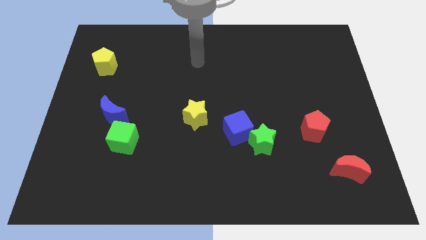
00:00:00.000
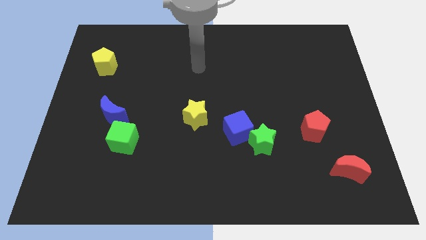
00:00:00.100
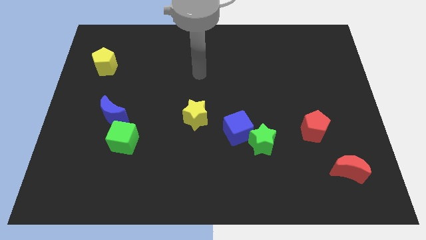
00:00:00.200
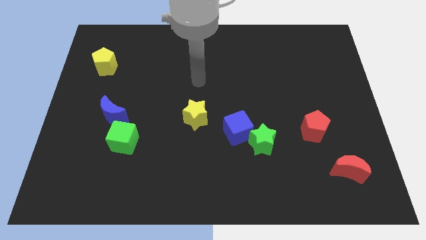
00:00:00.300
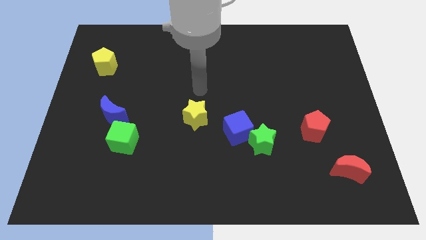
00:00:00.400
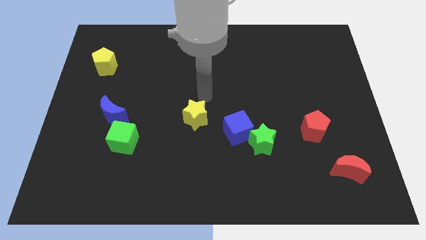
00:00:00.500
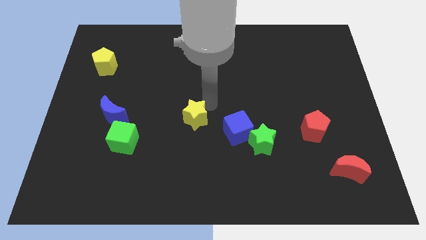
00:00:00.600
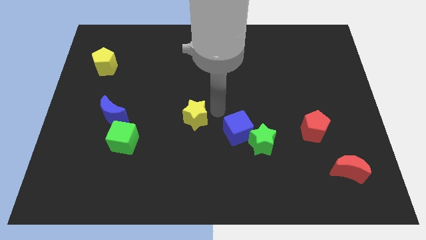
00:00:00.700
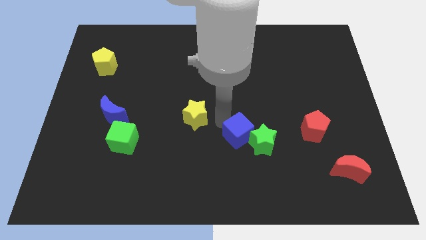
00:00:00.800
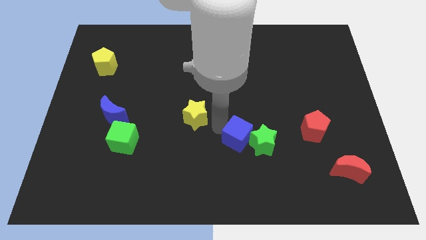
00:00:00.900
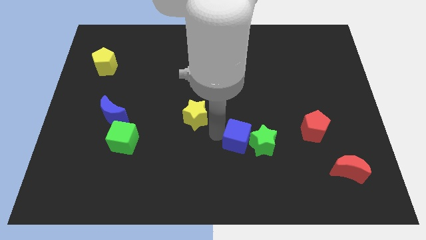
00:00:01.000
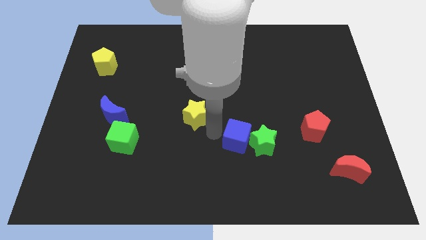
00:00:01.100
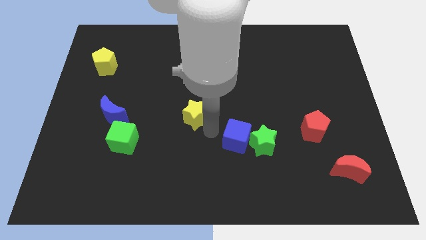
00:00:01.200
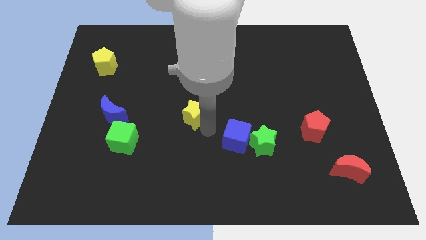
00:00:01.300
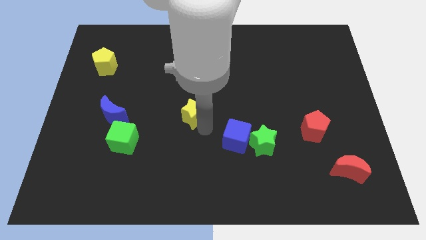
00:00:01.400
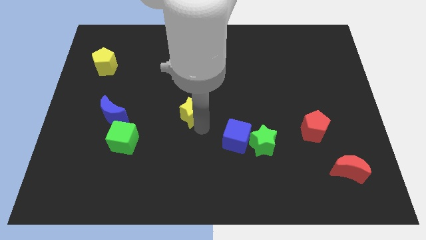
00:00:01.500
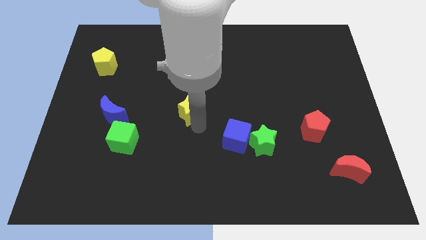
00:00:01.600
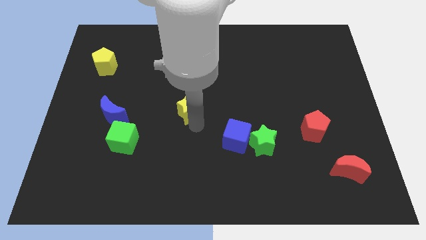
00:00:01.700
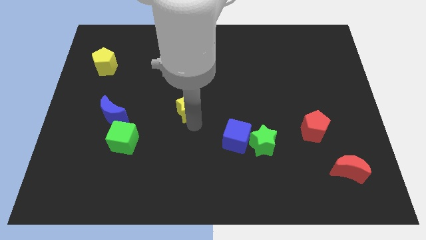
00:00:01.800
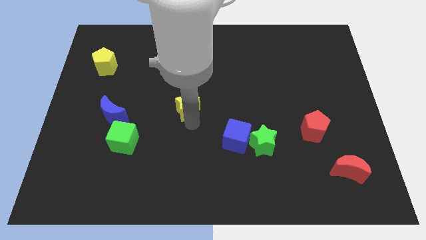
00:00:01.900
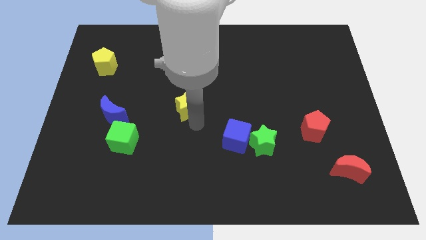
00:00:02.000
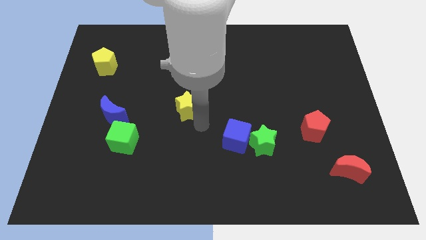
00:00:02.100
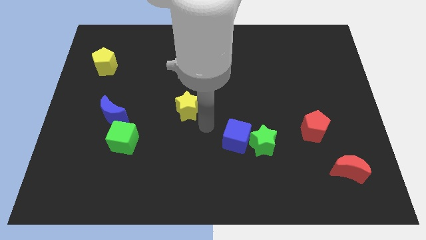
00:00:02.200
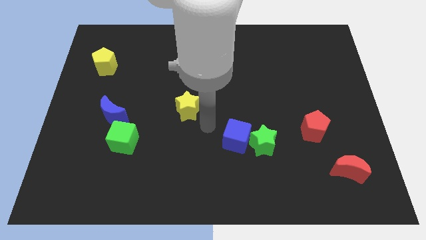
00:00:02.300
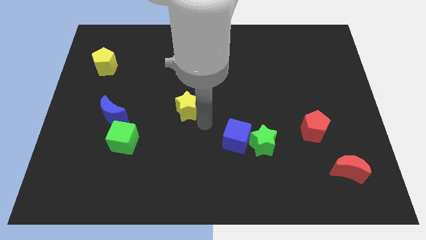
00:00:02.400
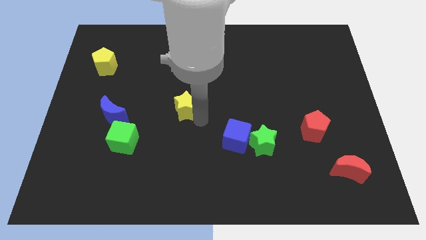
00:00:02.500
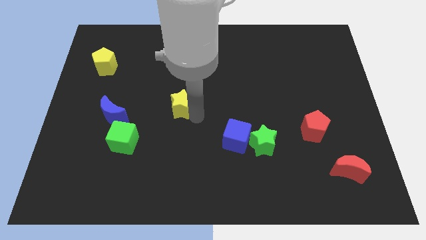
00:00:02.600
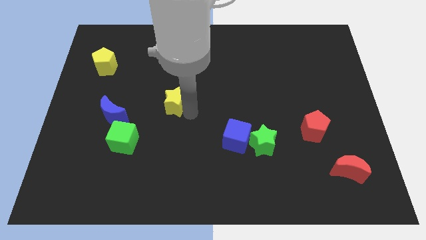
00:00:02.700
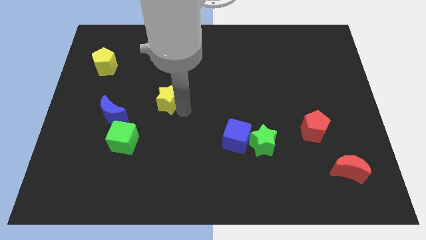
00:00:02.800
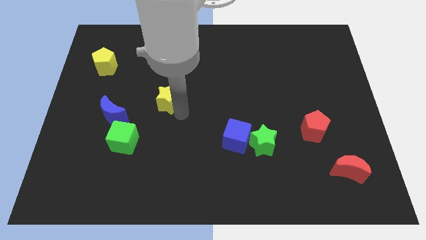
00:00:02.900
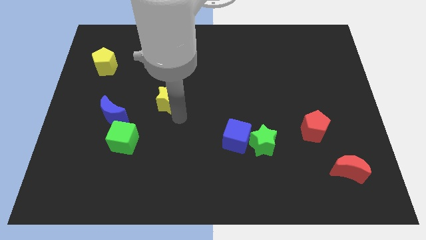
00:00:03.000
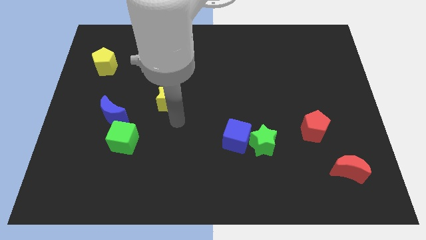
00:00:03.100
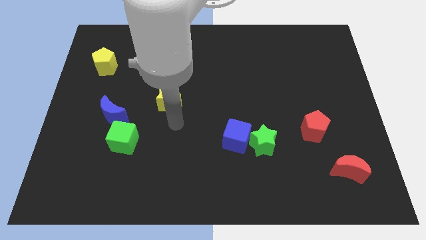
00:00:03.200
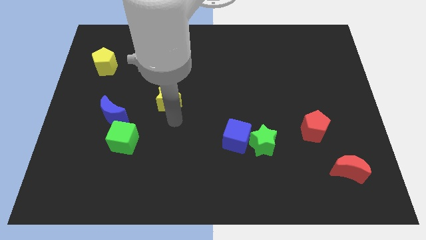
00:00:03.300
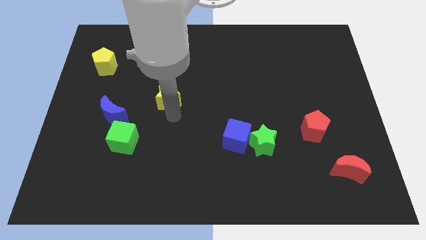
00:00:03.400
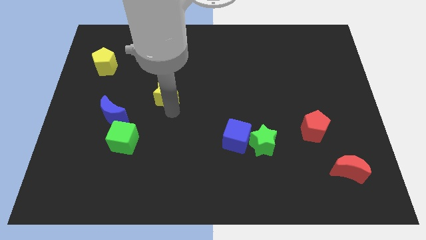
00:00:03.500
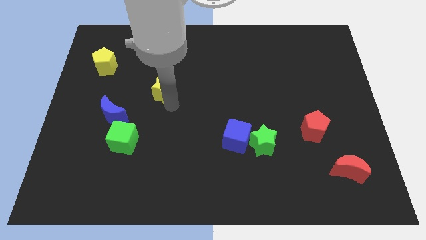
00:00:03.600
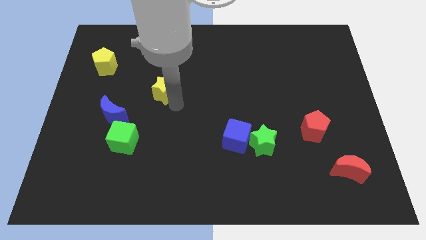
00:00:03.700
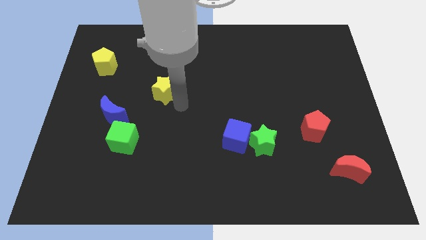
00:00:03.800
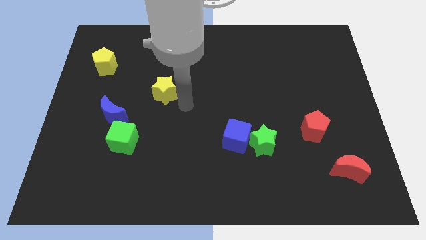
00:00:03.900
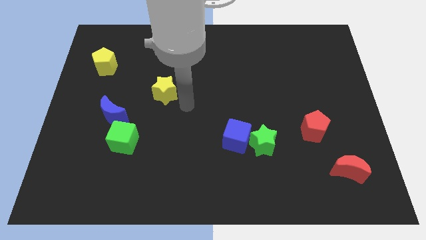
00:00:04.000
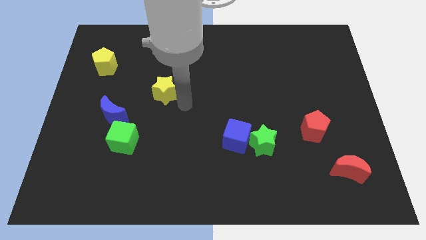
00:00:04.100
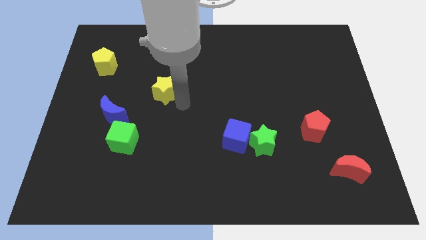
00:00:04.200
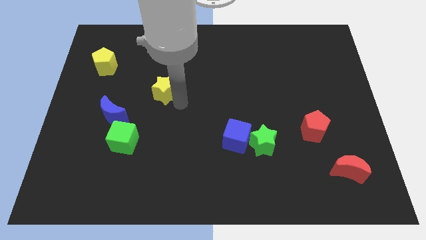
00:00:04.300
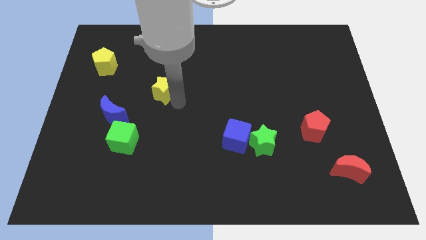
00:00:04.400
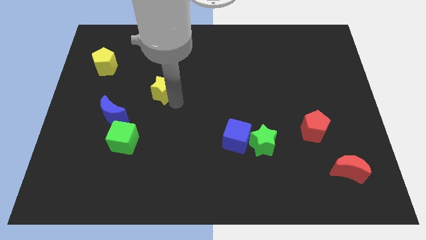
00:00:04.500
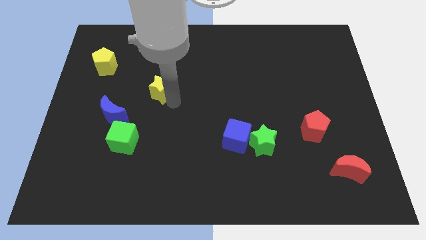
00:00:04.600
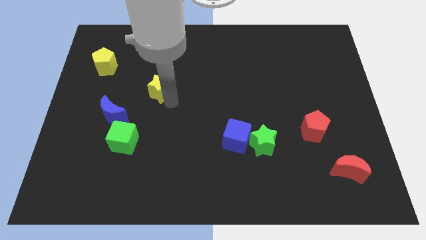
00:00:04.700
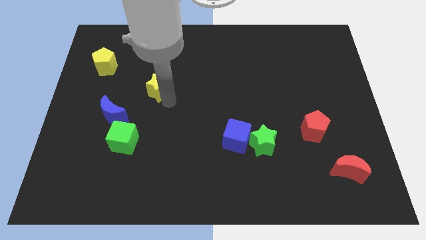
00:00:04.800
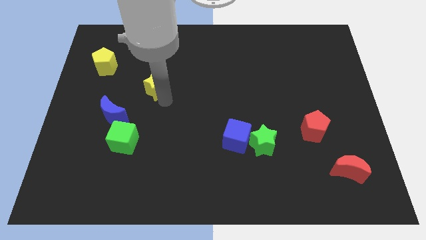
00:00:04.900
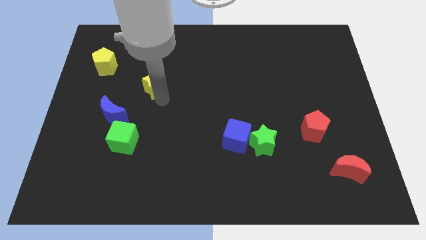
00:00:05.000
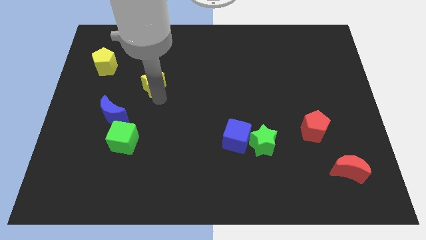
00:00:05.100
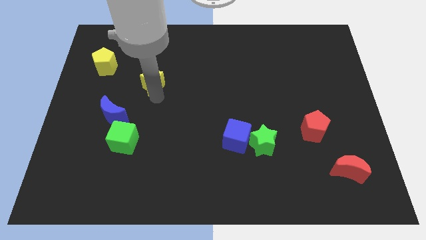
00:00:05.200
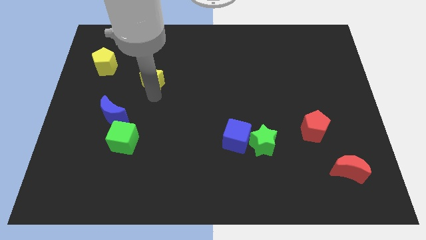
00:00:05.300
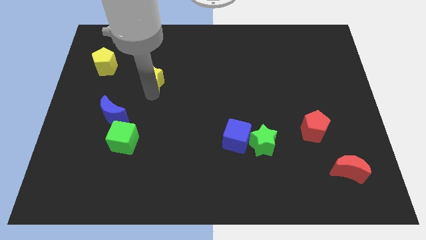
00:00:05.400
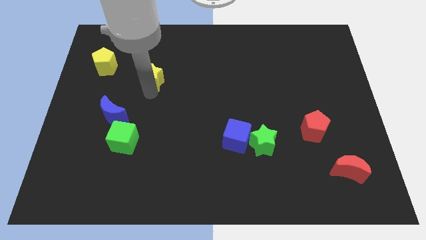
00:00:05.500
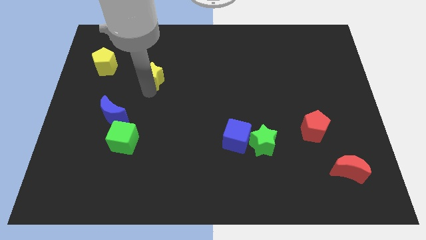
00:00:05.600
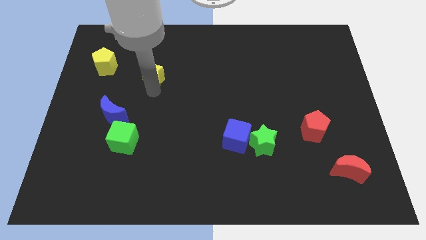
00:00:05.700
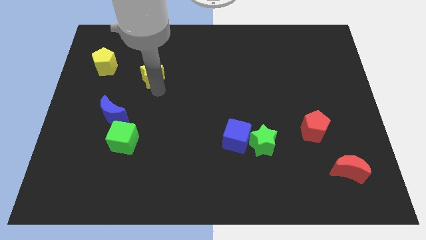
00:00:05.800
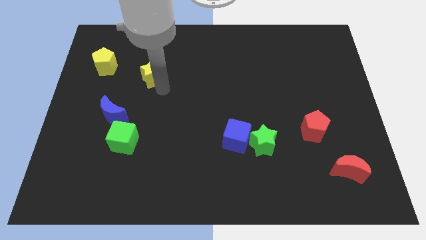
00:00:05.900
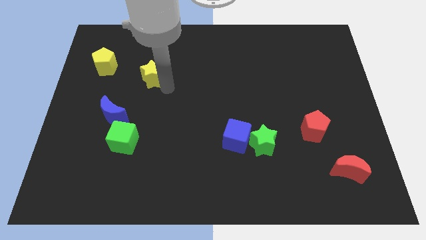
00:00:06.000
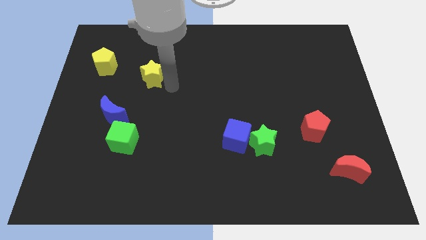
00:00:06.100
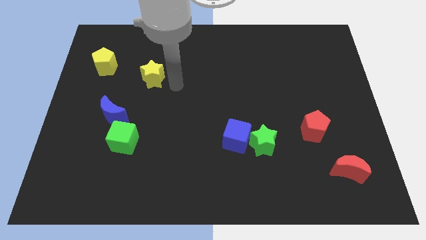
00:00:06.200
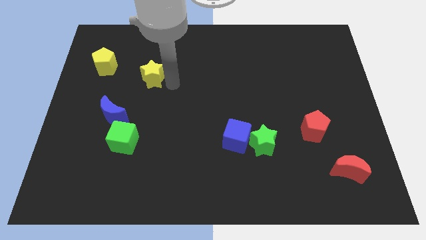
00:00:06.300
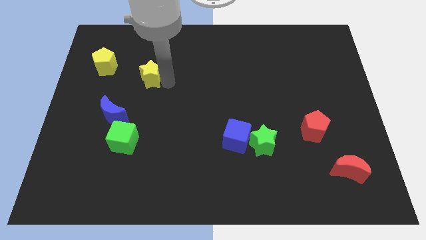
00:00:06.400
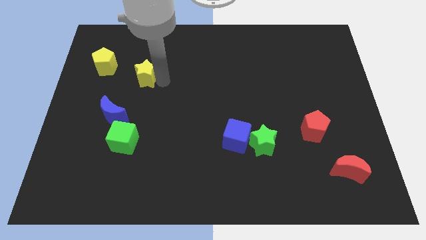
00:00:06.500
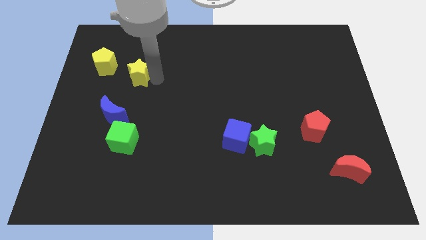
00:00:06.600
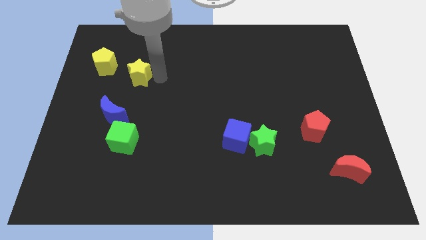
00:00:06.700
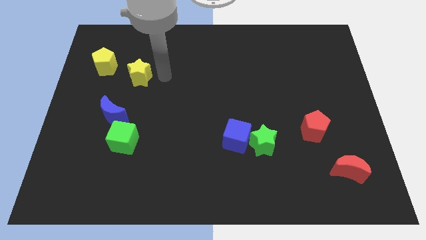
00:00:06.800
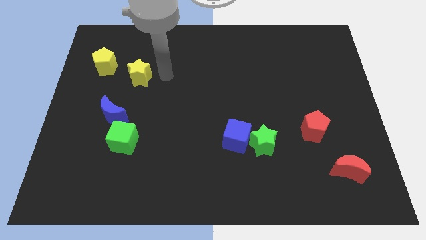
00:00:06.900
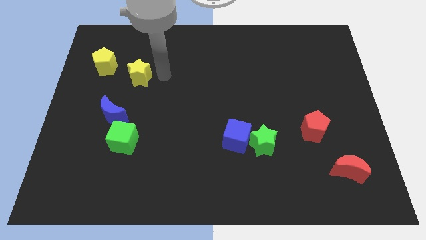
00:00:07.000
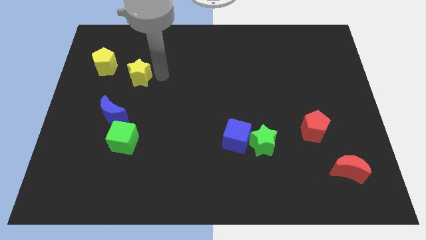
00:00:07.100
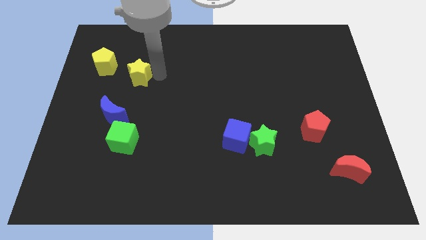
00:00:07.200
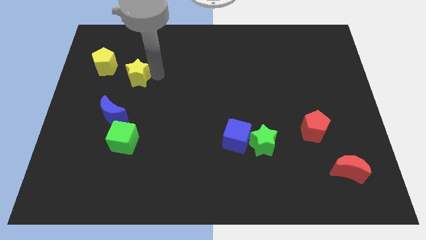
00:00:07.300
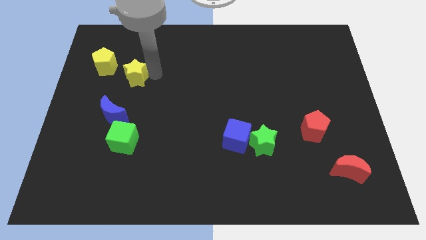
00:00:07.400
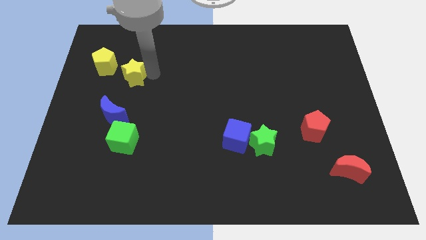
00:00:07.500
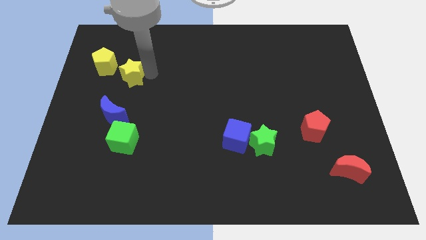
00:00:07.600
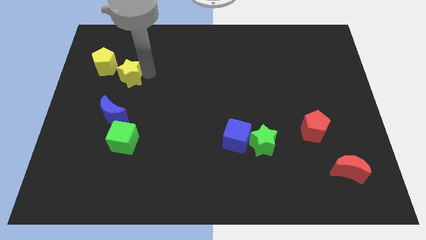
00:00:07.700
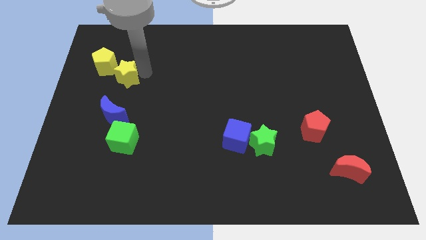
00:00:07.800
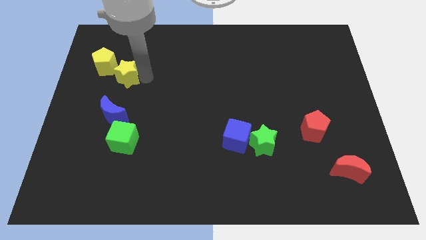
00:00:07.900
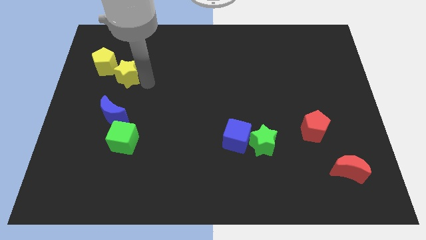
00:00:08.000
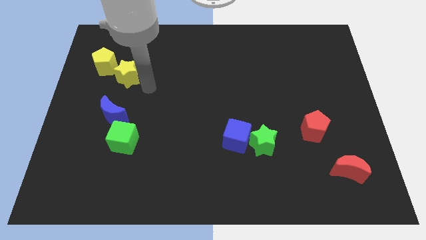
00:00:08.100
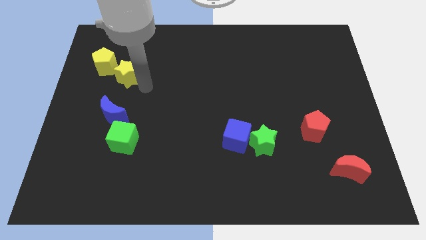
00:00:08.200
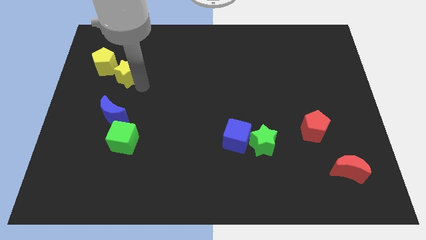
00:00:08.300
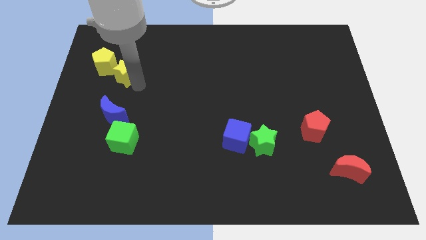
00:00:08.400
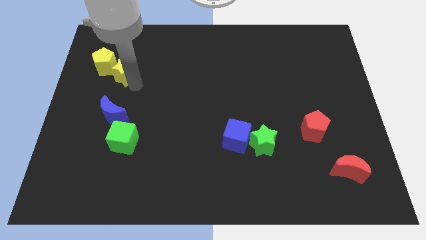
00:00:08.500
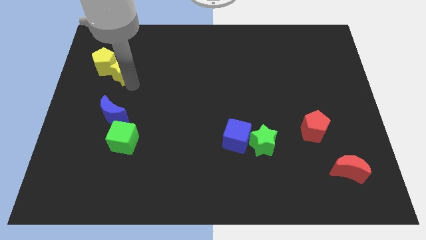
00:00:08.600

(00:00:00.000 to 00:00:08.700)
push the yellow star towards the yellow pentagon
